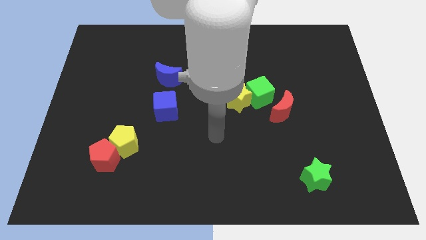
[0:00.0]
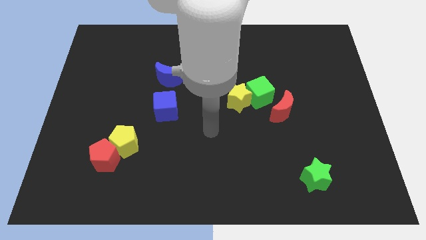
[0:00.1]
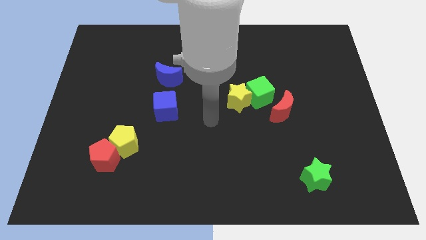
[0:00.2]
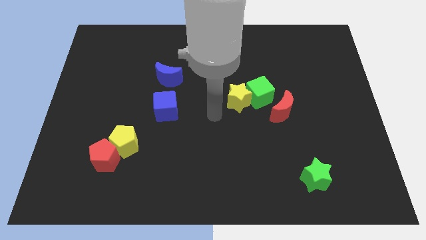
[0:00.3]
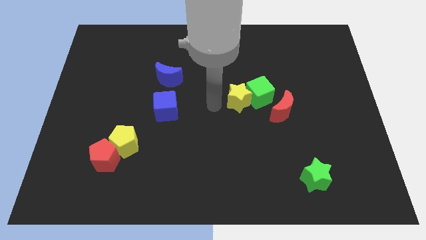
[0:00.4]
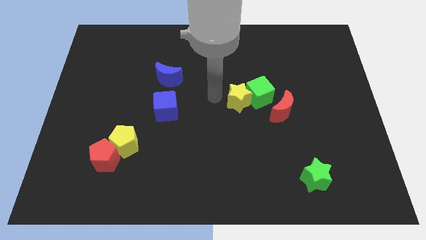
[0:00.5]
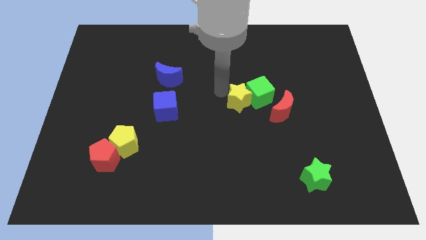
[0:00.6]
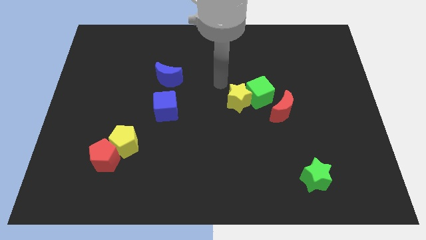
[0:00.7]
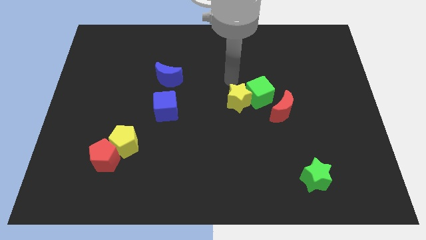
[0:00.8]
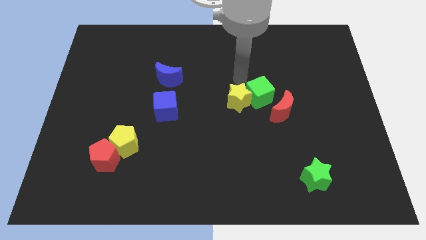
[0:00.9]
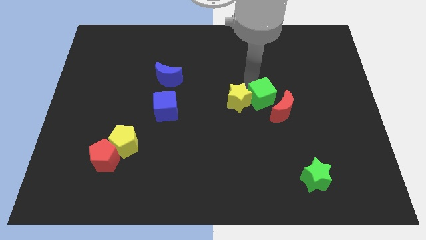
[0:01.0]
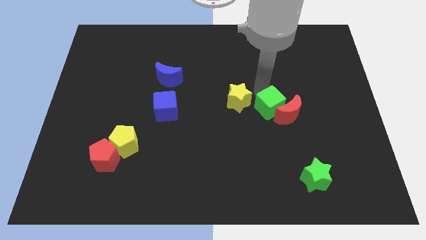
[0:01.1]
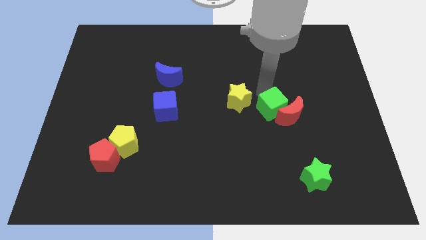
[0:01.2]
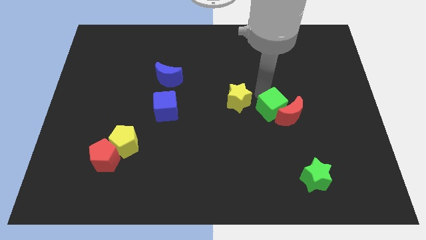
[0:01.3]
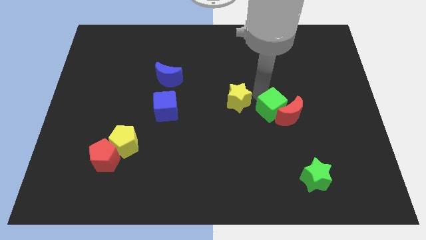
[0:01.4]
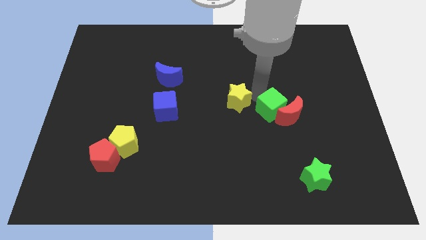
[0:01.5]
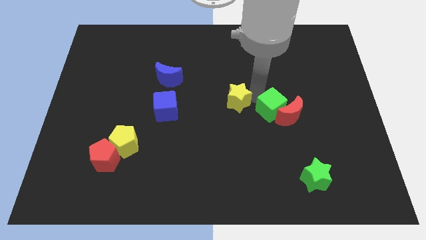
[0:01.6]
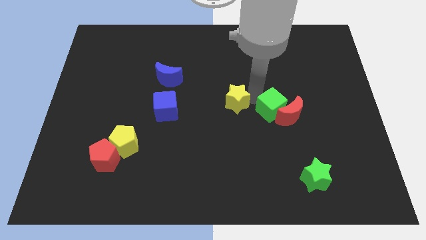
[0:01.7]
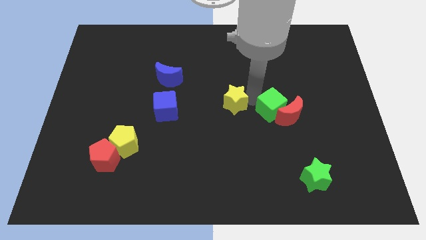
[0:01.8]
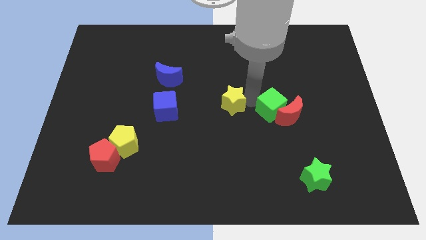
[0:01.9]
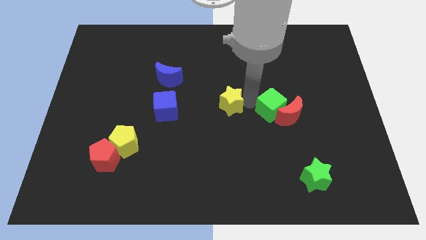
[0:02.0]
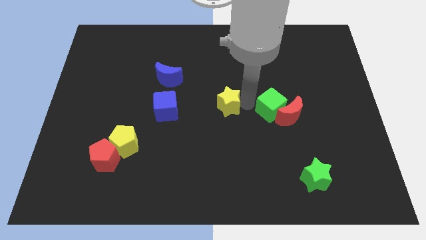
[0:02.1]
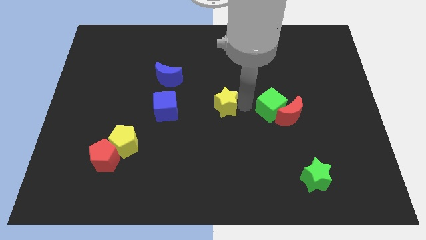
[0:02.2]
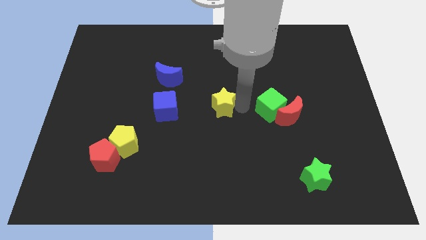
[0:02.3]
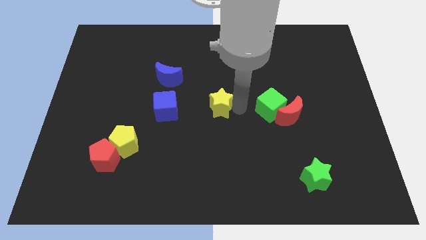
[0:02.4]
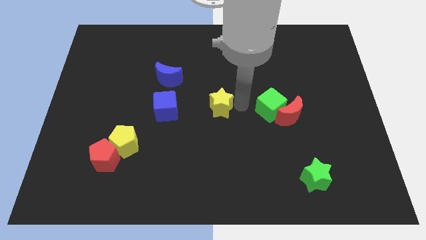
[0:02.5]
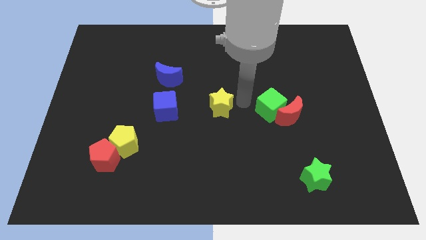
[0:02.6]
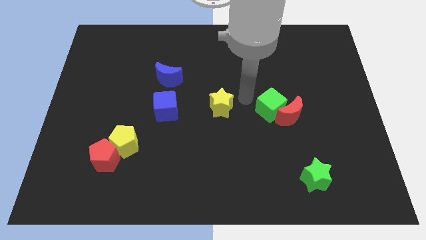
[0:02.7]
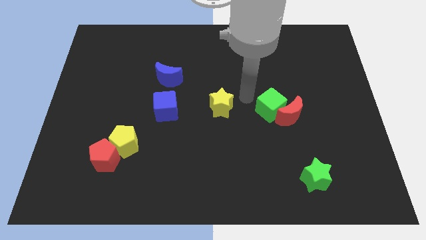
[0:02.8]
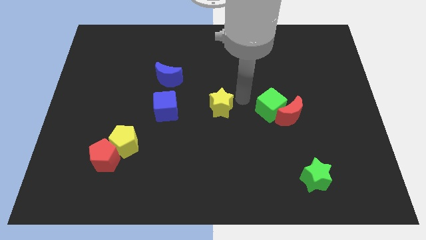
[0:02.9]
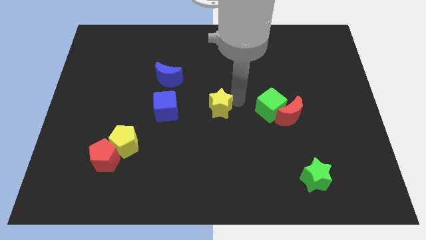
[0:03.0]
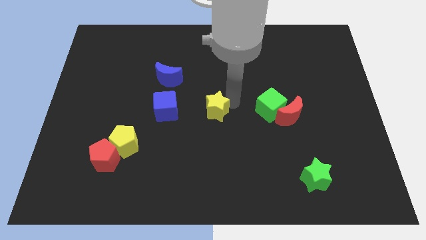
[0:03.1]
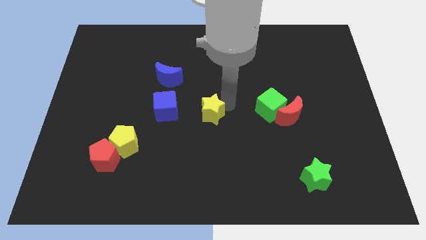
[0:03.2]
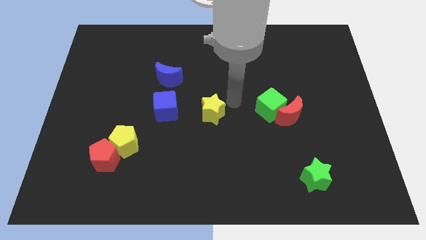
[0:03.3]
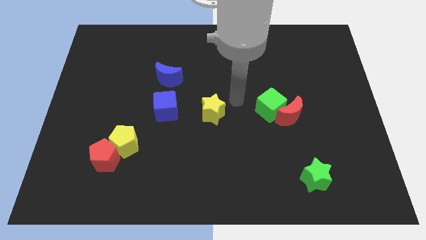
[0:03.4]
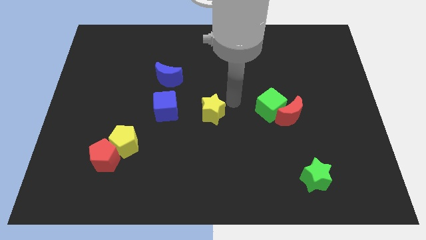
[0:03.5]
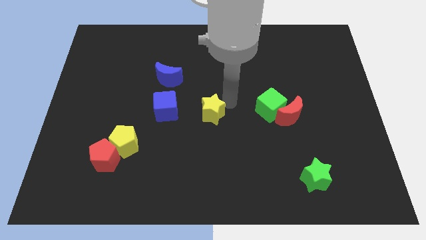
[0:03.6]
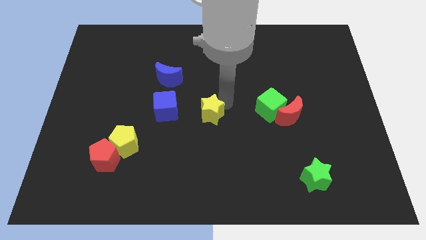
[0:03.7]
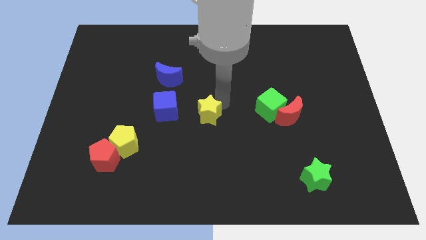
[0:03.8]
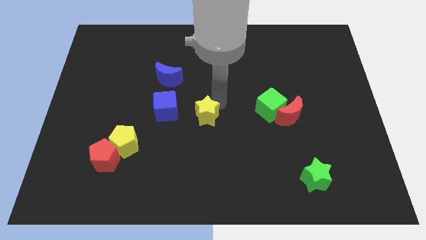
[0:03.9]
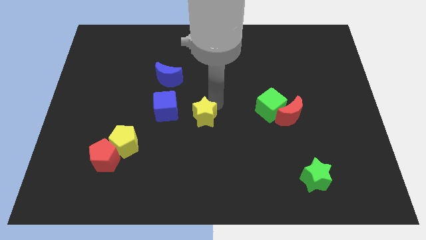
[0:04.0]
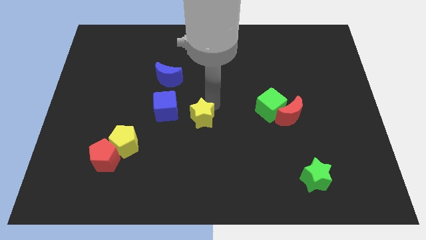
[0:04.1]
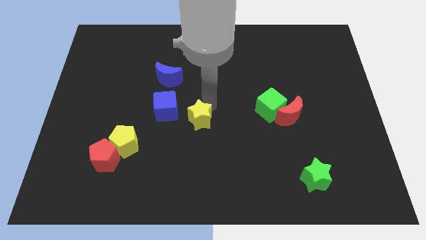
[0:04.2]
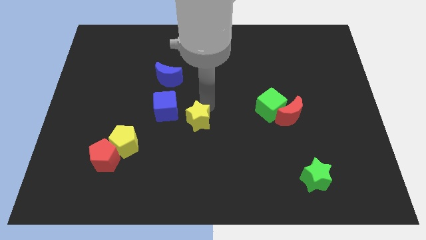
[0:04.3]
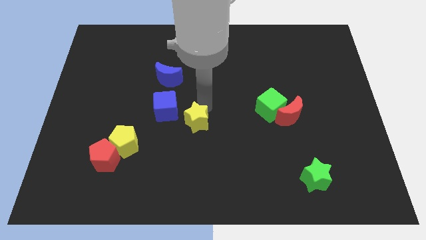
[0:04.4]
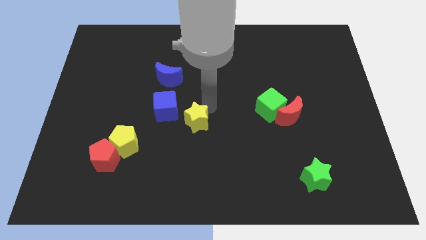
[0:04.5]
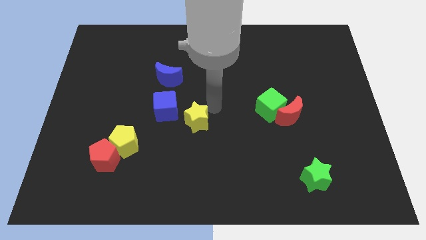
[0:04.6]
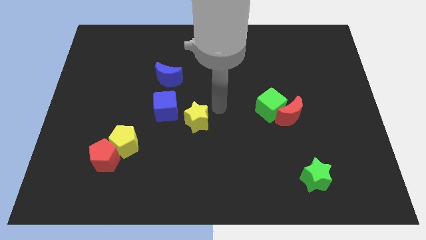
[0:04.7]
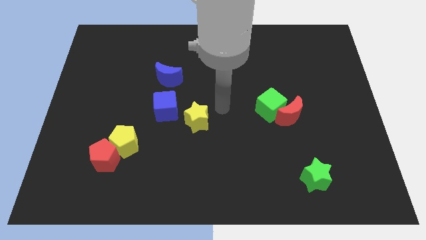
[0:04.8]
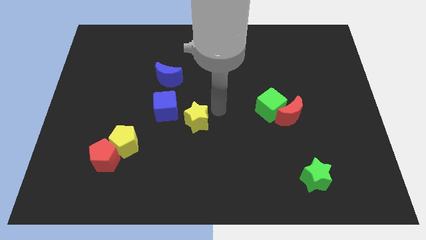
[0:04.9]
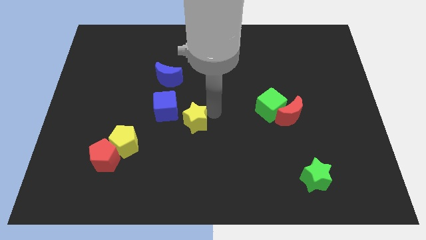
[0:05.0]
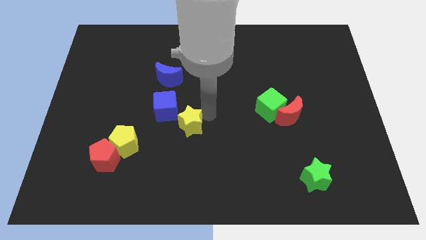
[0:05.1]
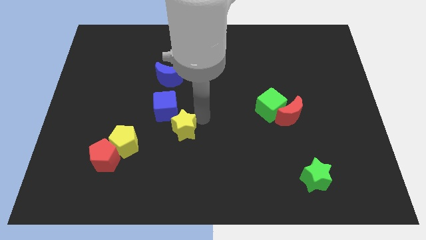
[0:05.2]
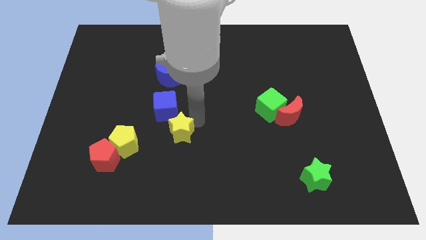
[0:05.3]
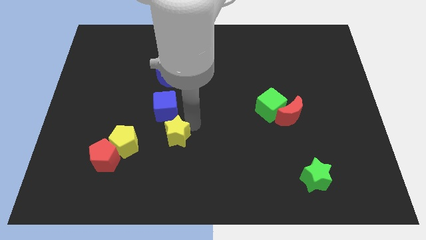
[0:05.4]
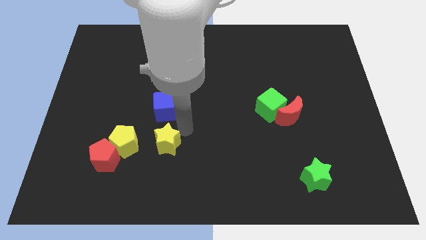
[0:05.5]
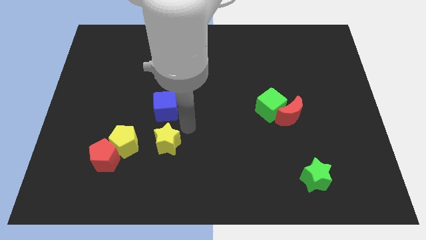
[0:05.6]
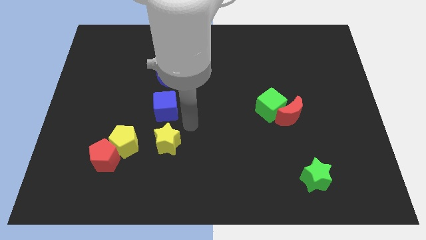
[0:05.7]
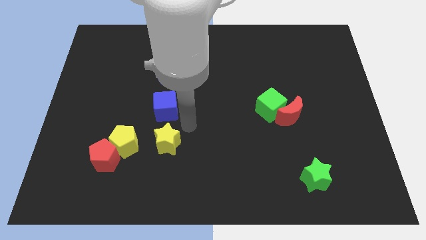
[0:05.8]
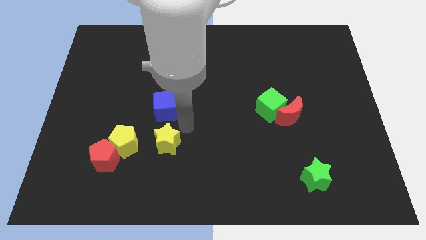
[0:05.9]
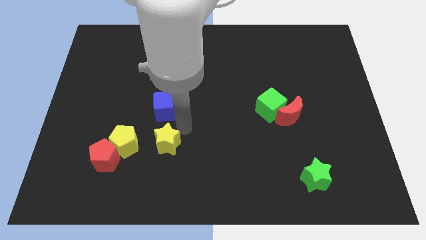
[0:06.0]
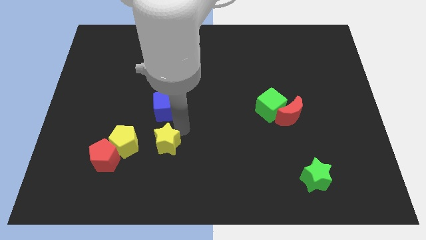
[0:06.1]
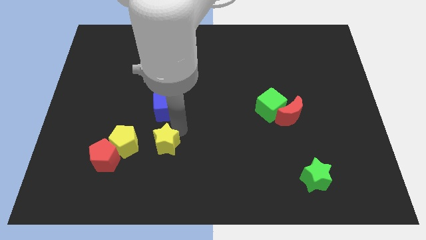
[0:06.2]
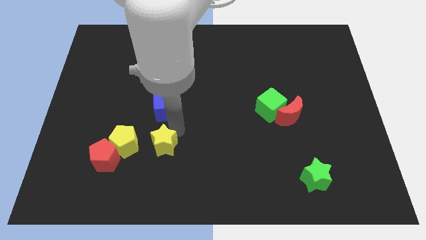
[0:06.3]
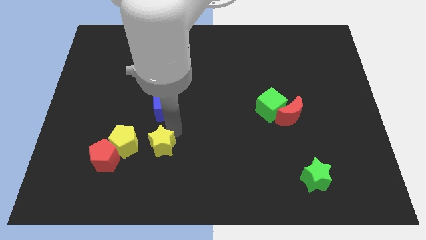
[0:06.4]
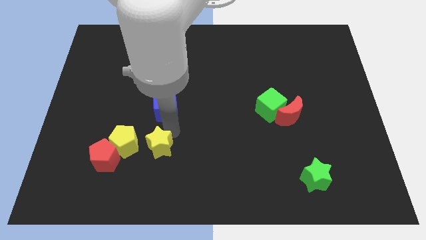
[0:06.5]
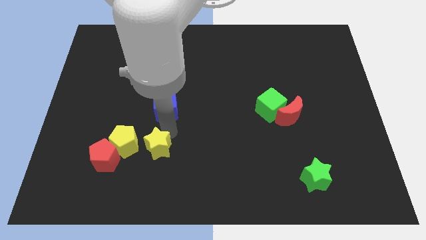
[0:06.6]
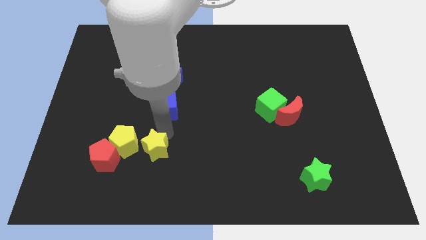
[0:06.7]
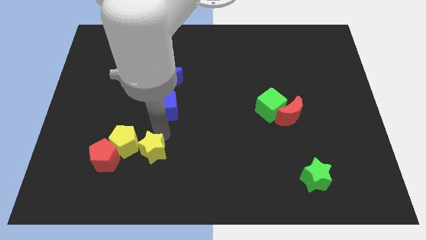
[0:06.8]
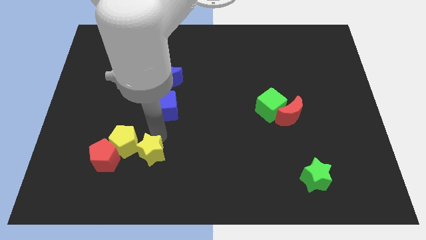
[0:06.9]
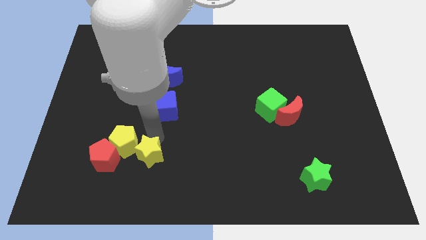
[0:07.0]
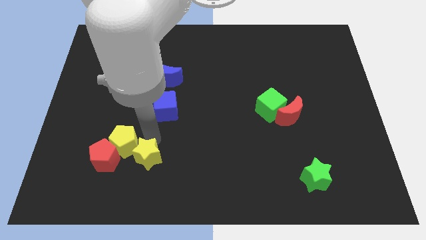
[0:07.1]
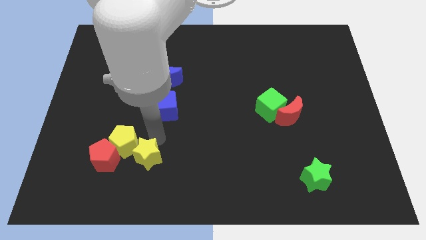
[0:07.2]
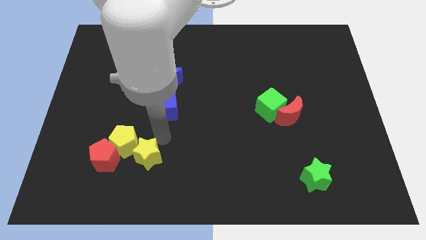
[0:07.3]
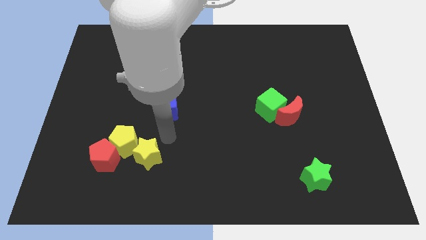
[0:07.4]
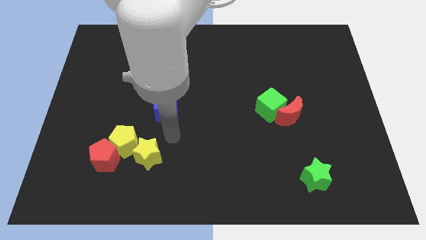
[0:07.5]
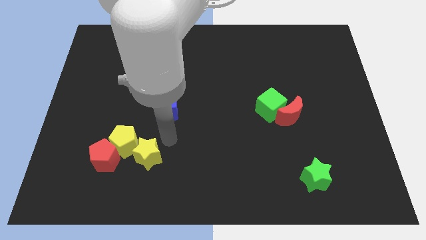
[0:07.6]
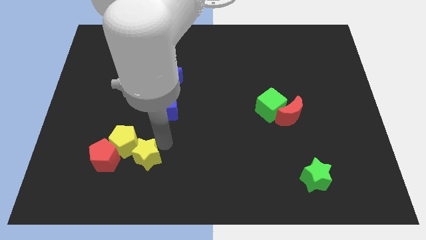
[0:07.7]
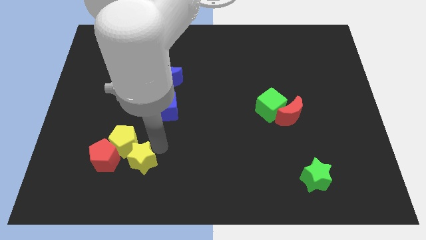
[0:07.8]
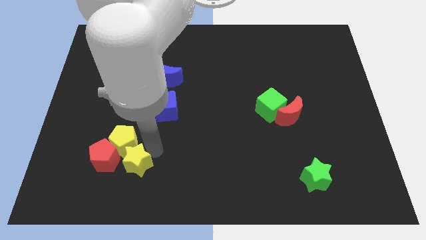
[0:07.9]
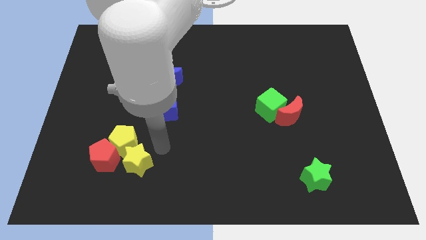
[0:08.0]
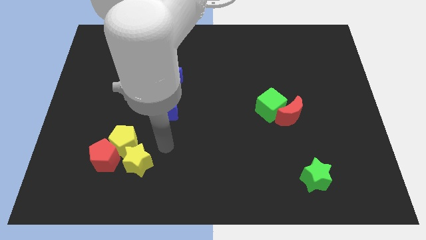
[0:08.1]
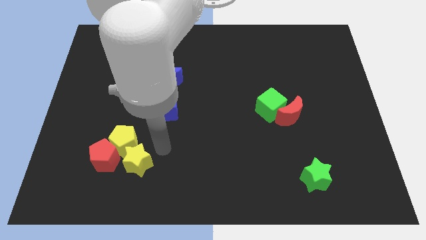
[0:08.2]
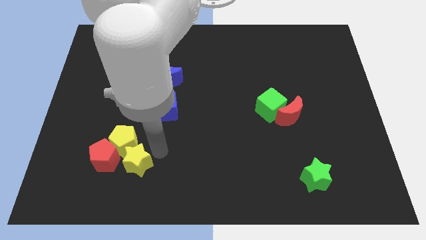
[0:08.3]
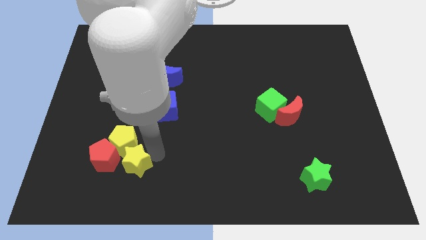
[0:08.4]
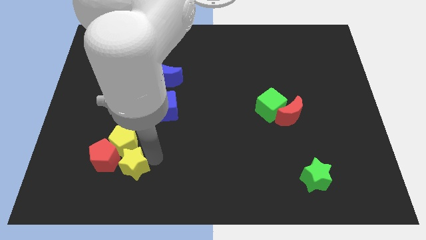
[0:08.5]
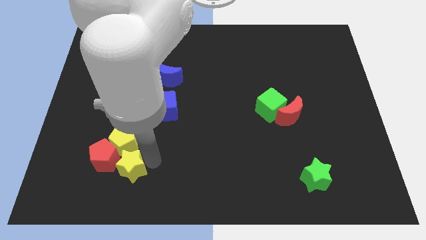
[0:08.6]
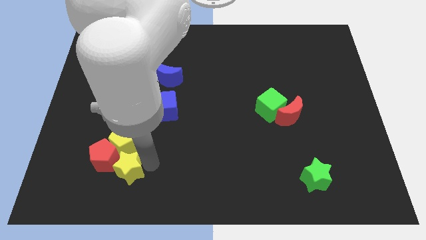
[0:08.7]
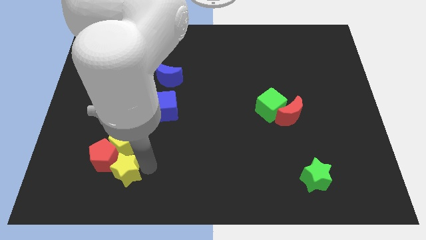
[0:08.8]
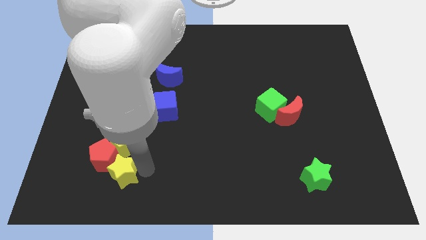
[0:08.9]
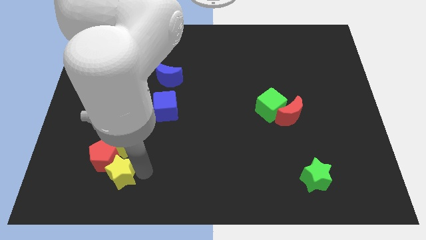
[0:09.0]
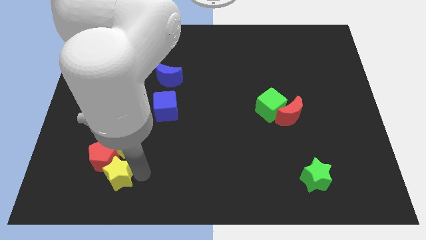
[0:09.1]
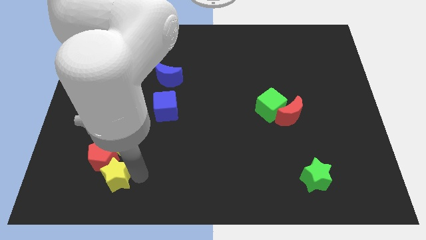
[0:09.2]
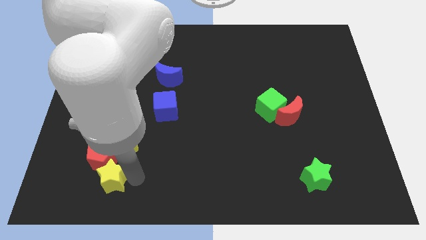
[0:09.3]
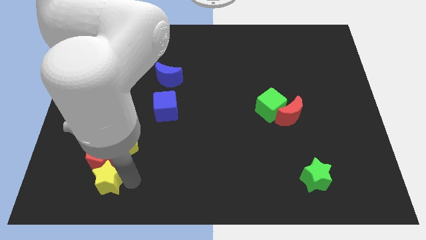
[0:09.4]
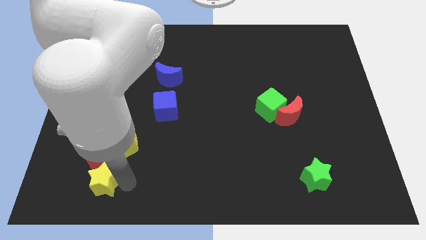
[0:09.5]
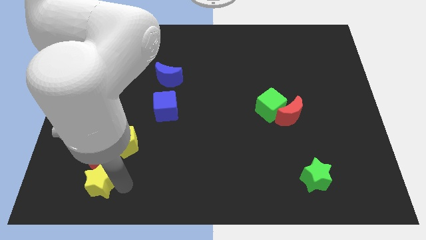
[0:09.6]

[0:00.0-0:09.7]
put the yellow star to the bottom left of the red pentagon
